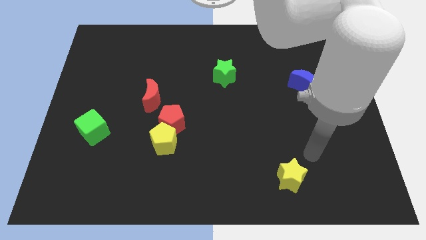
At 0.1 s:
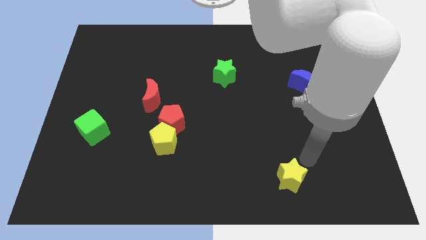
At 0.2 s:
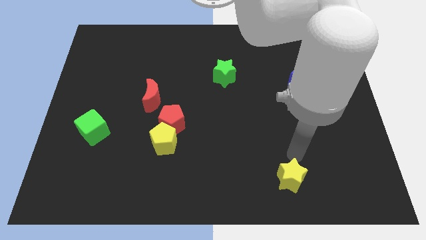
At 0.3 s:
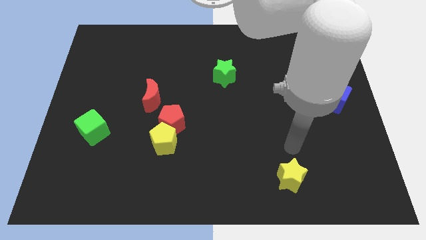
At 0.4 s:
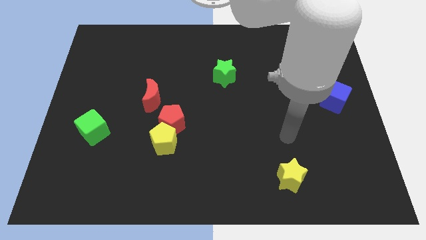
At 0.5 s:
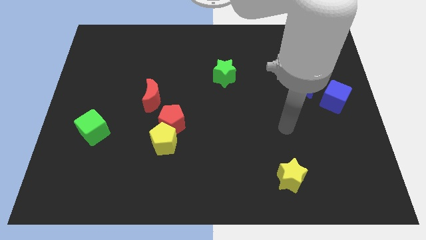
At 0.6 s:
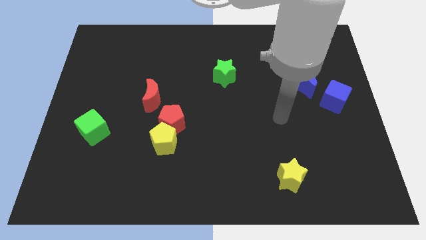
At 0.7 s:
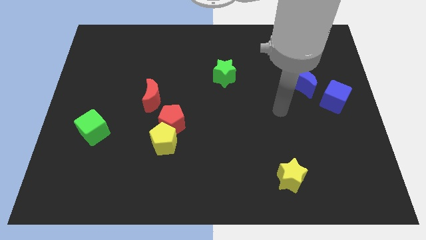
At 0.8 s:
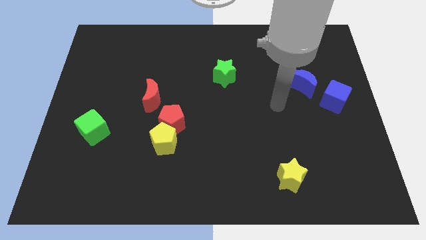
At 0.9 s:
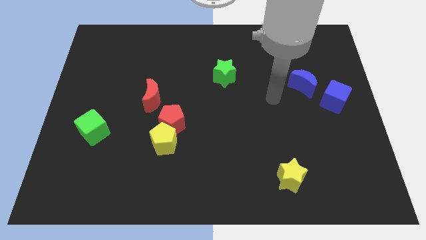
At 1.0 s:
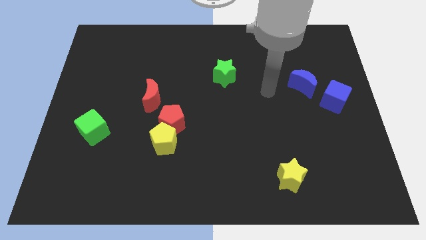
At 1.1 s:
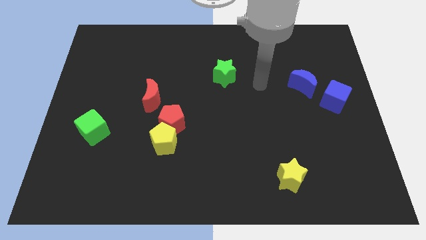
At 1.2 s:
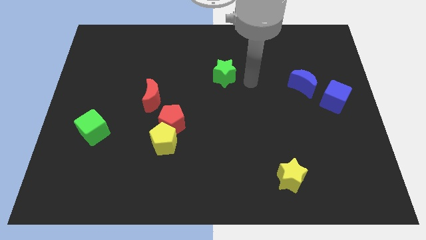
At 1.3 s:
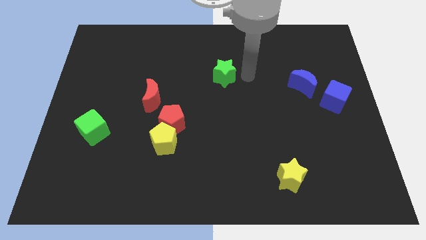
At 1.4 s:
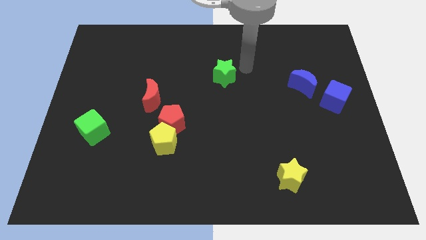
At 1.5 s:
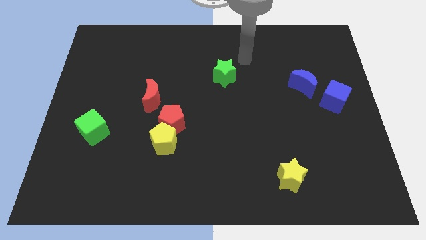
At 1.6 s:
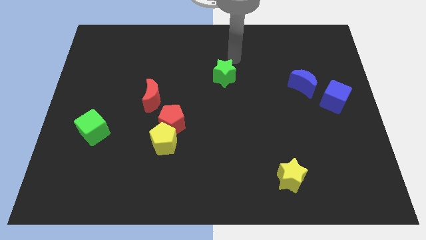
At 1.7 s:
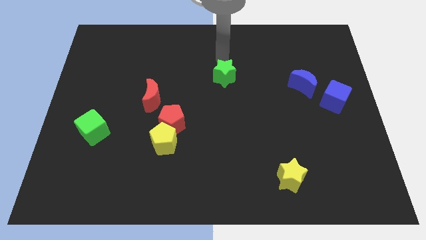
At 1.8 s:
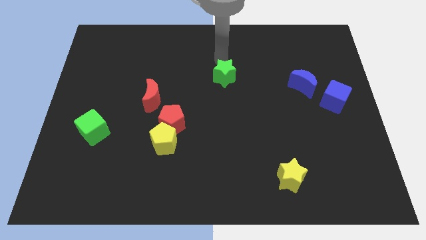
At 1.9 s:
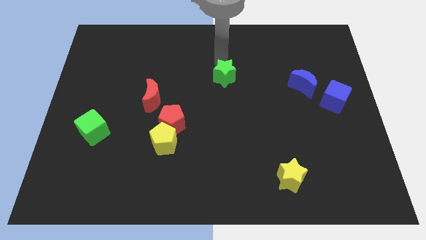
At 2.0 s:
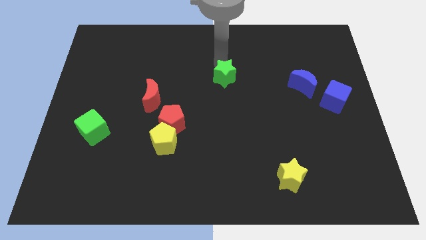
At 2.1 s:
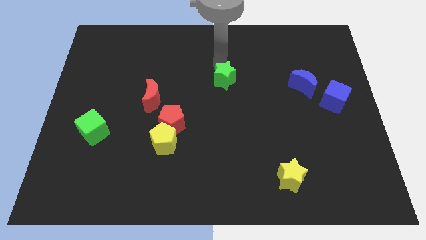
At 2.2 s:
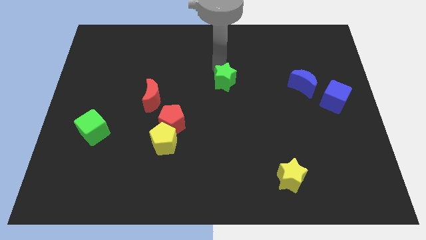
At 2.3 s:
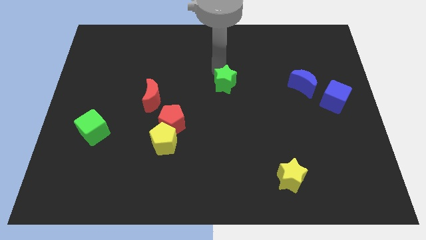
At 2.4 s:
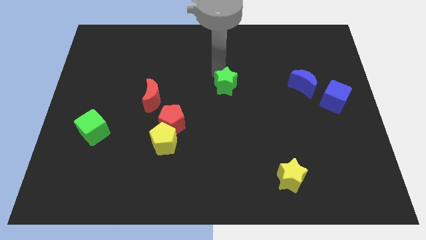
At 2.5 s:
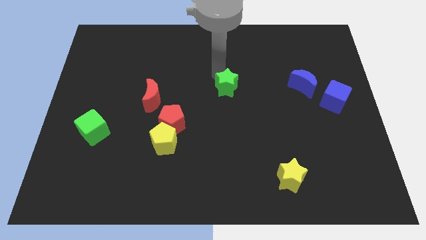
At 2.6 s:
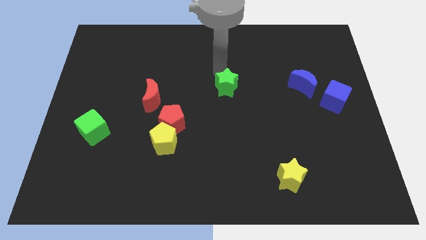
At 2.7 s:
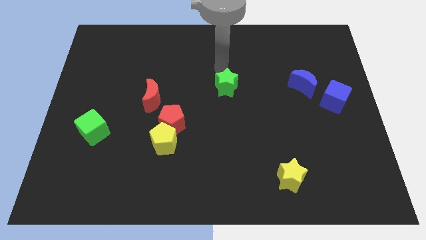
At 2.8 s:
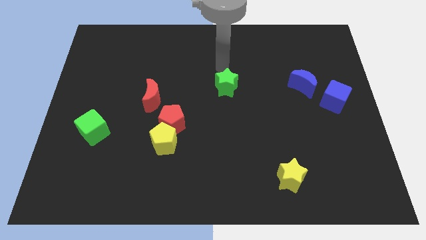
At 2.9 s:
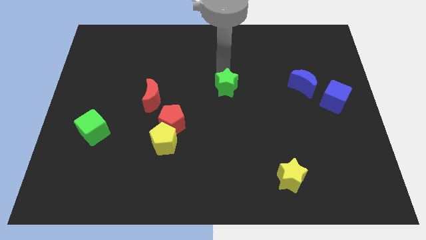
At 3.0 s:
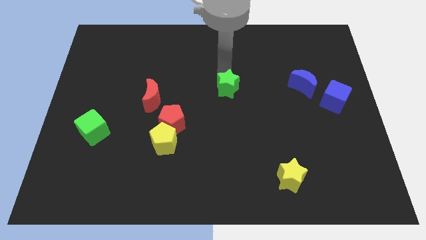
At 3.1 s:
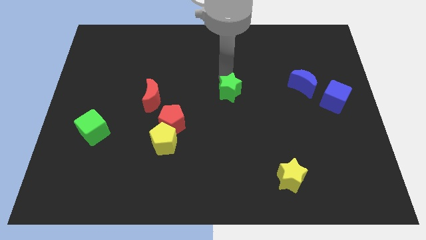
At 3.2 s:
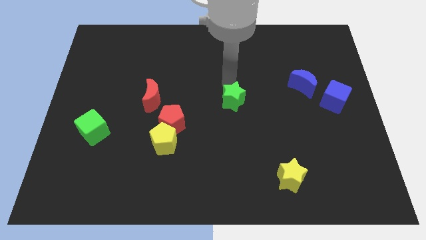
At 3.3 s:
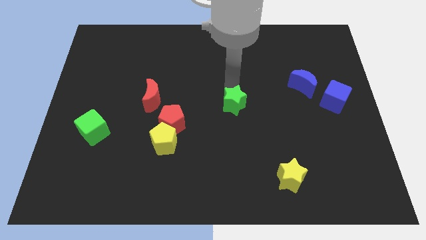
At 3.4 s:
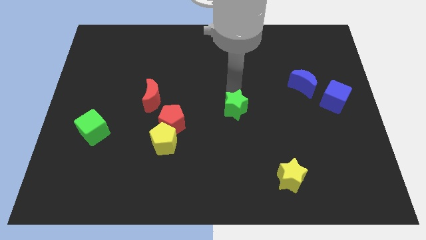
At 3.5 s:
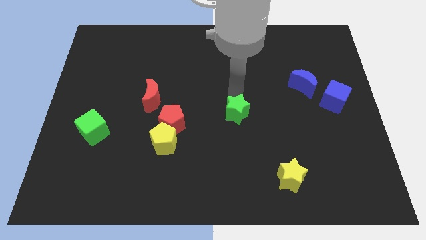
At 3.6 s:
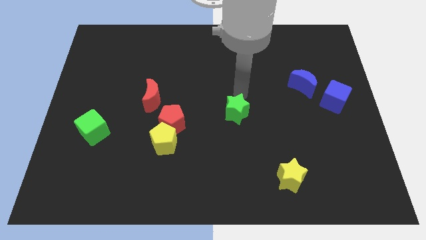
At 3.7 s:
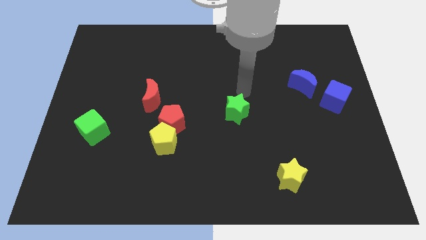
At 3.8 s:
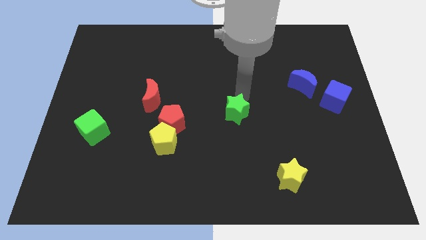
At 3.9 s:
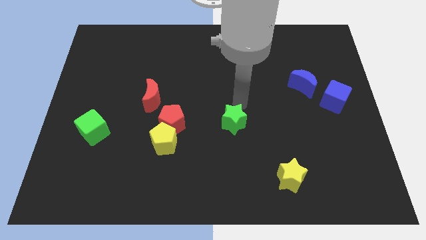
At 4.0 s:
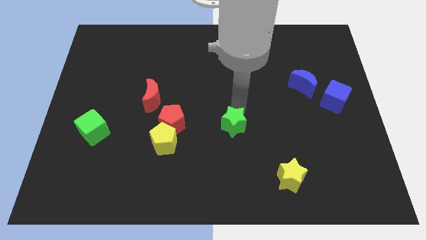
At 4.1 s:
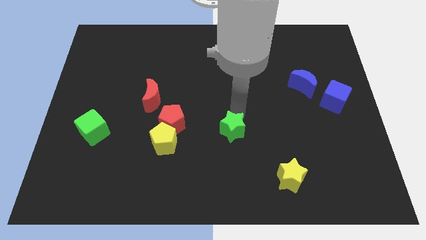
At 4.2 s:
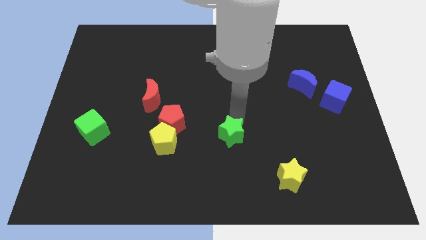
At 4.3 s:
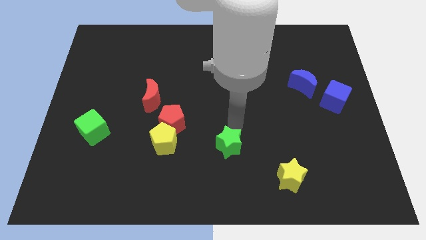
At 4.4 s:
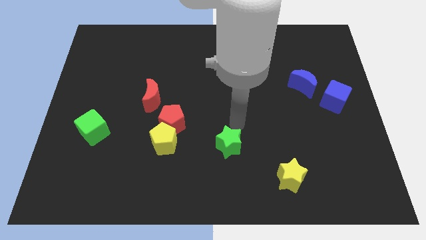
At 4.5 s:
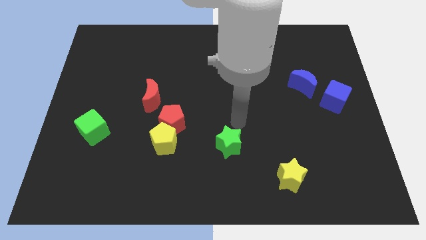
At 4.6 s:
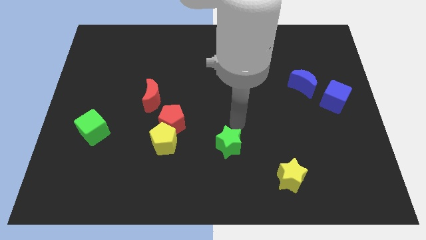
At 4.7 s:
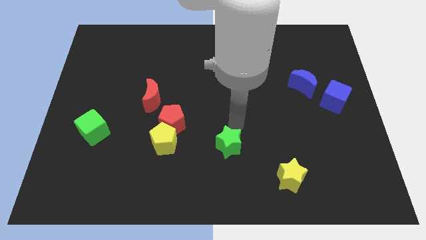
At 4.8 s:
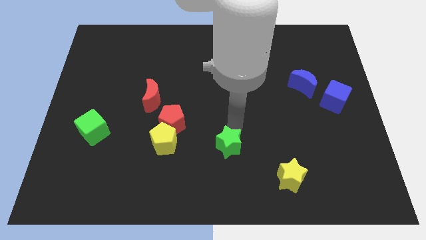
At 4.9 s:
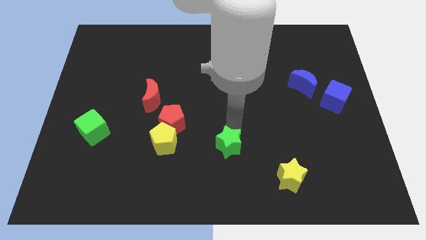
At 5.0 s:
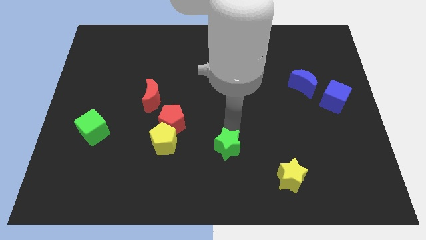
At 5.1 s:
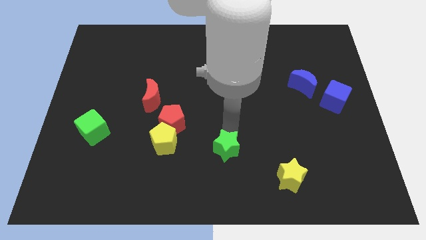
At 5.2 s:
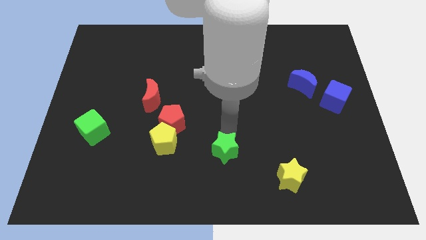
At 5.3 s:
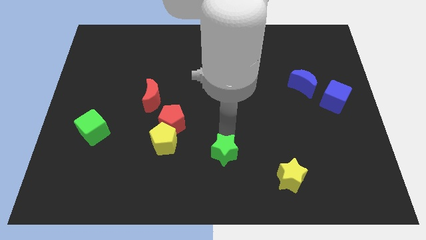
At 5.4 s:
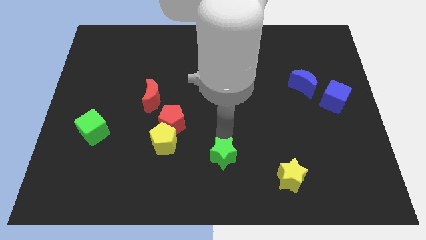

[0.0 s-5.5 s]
push the green star to the bottom side
